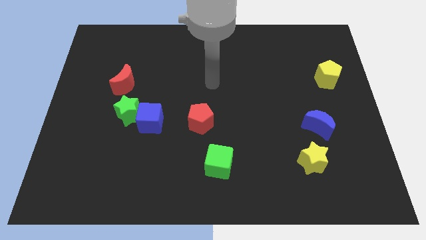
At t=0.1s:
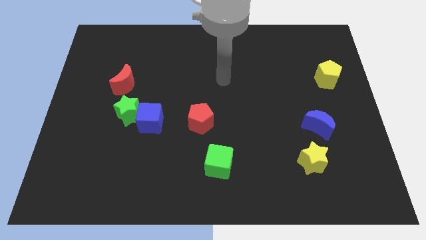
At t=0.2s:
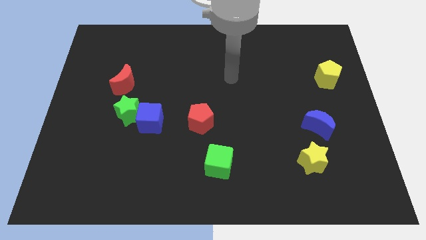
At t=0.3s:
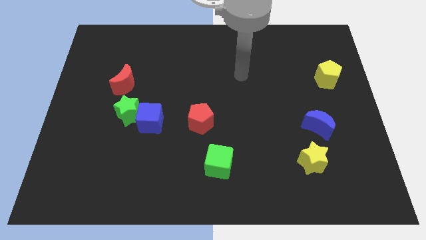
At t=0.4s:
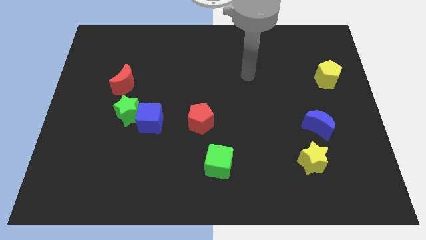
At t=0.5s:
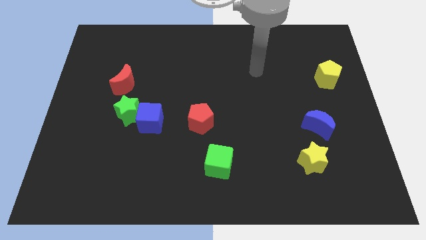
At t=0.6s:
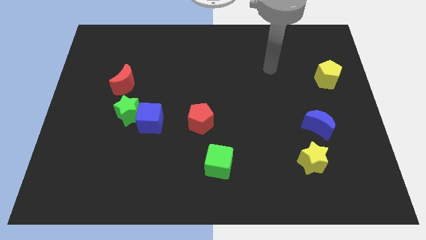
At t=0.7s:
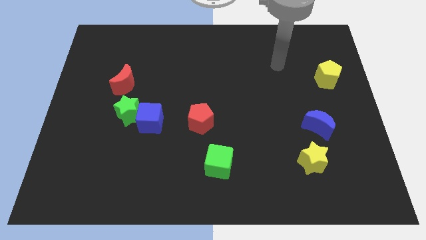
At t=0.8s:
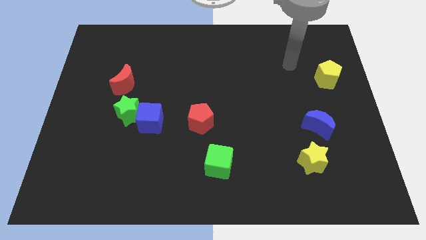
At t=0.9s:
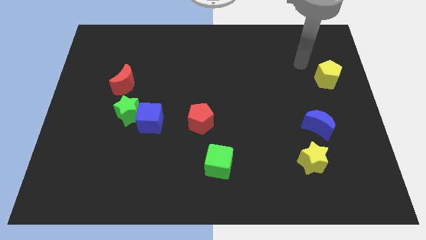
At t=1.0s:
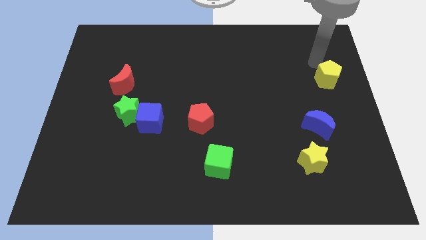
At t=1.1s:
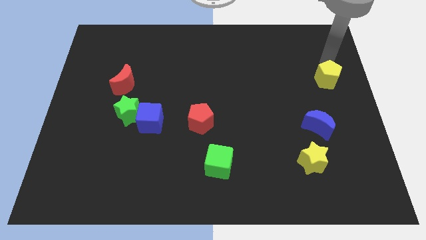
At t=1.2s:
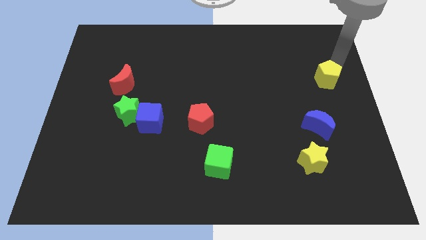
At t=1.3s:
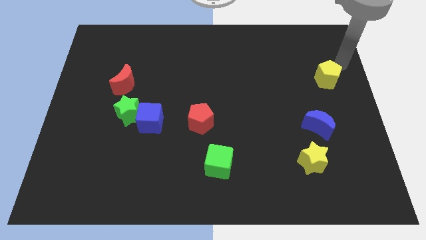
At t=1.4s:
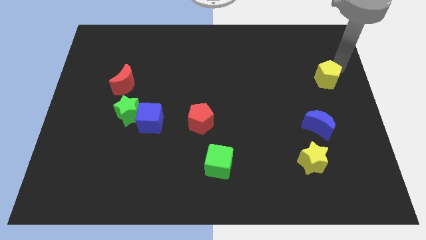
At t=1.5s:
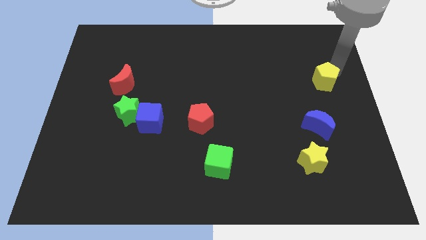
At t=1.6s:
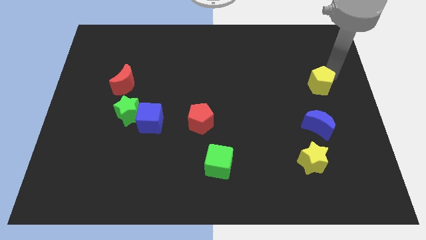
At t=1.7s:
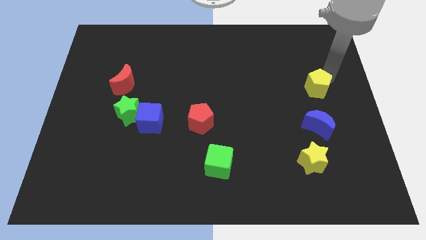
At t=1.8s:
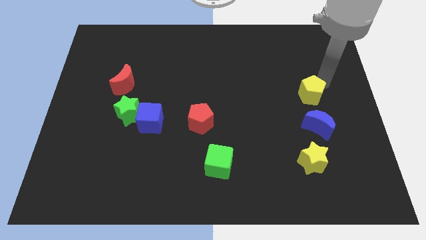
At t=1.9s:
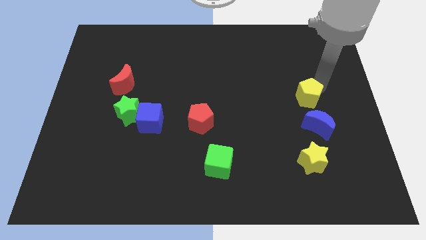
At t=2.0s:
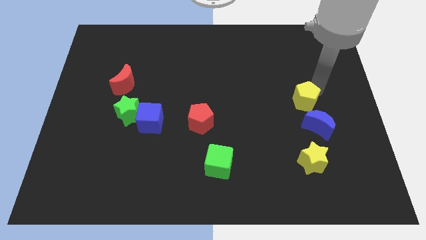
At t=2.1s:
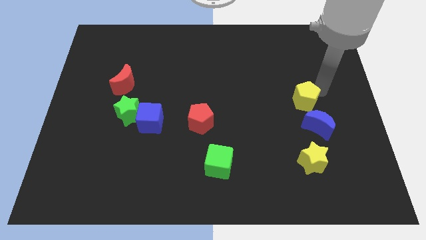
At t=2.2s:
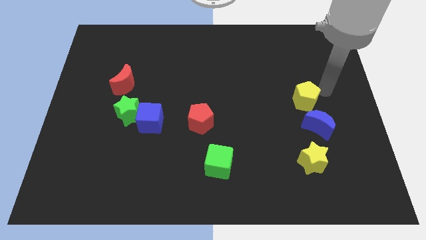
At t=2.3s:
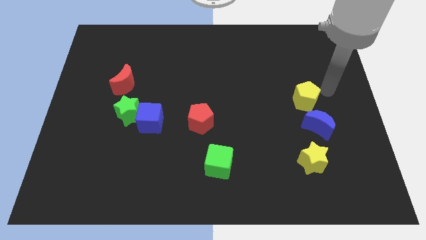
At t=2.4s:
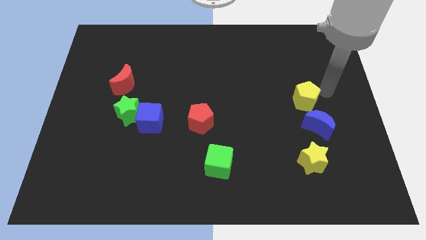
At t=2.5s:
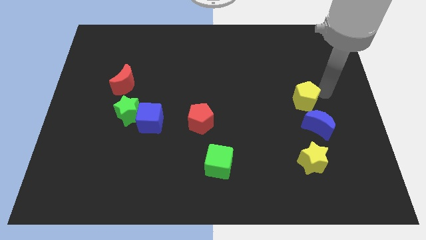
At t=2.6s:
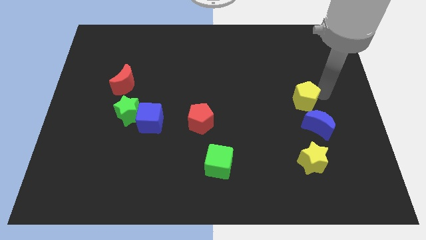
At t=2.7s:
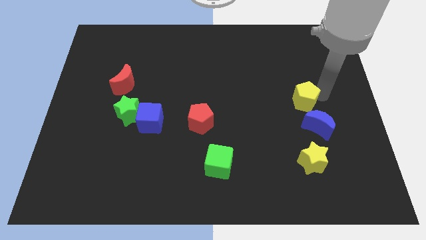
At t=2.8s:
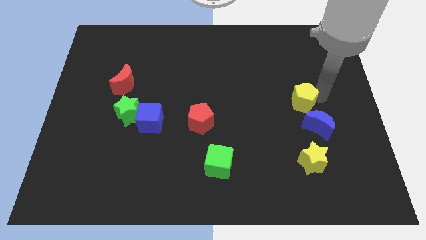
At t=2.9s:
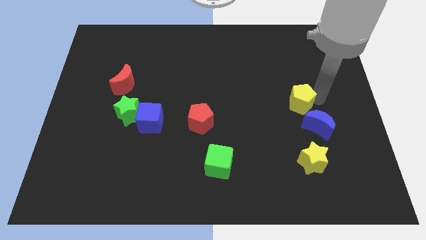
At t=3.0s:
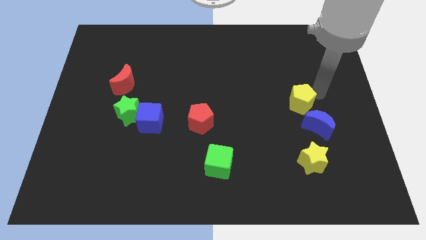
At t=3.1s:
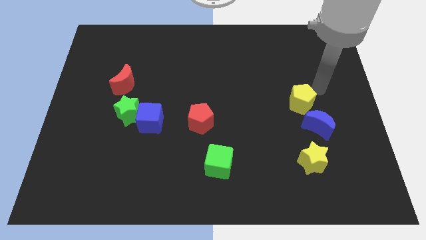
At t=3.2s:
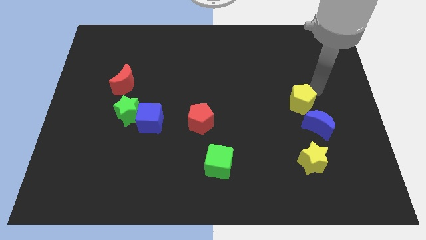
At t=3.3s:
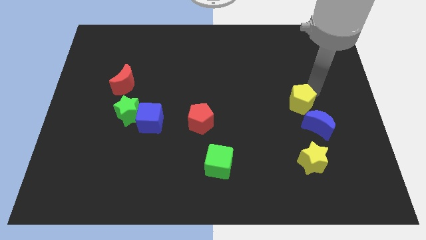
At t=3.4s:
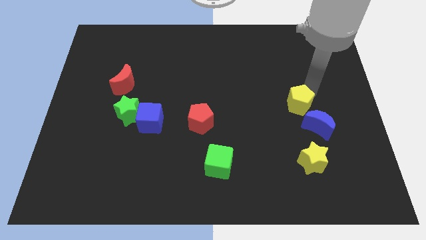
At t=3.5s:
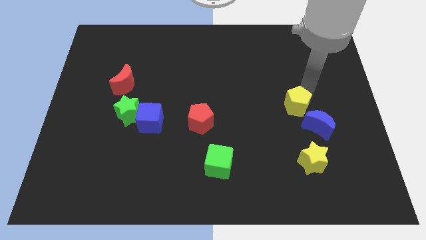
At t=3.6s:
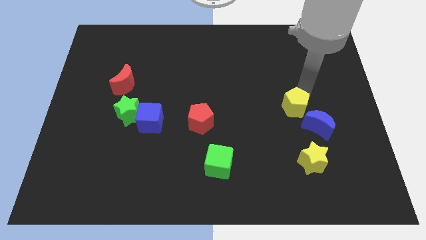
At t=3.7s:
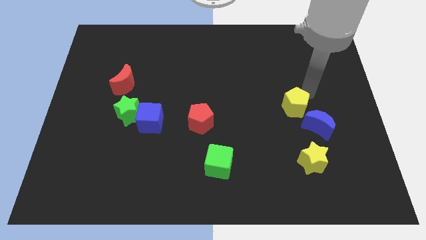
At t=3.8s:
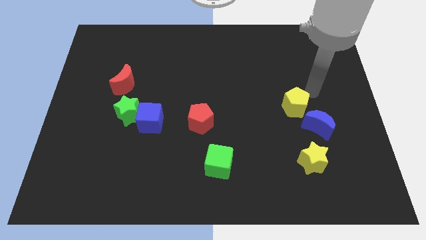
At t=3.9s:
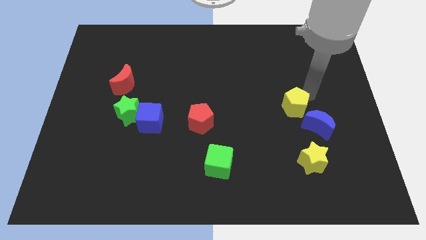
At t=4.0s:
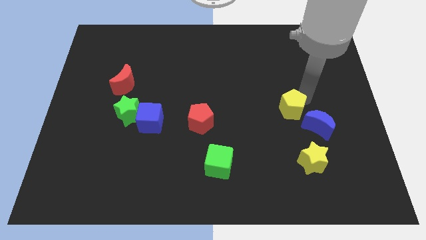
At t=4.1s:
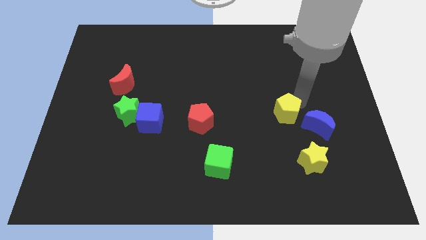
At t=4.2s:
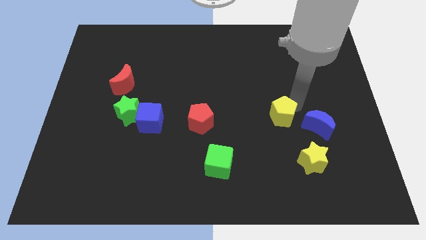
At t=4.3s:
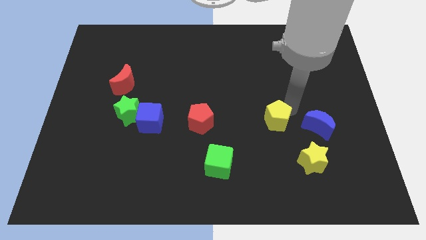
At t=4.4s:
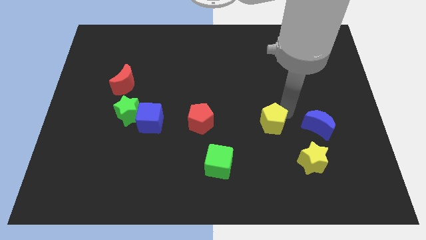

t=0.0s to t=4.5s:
slide the yellow pentagon diagonally downwards and left

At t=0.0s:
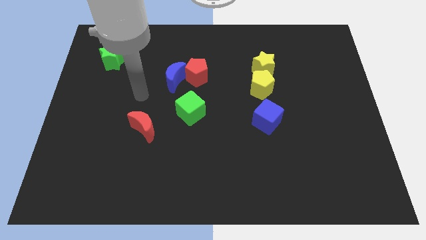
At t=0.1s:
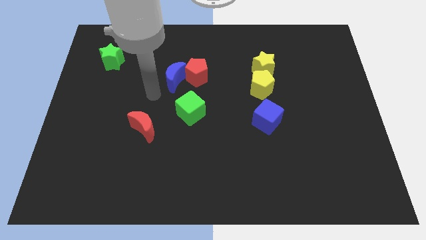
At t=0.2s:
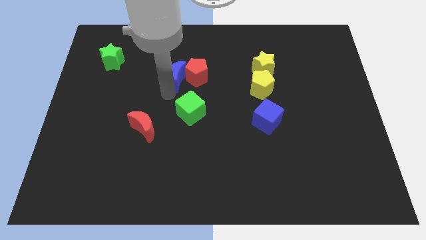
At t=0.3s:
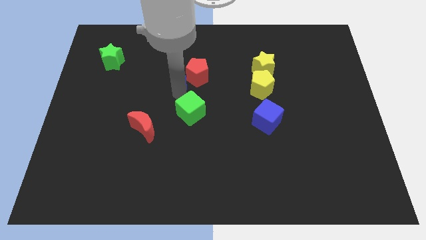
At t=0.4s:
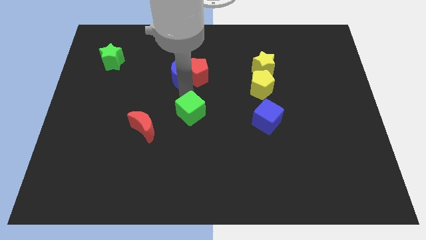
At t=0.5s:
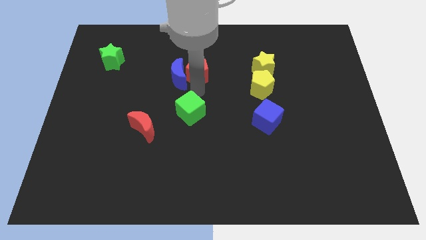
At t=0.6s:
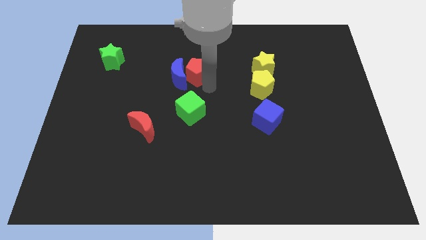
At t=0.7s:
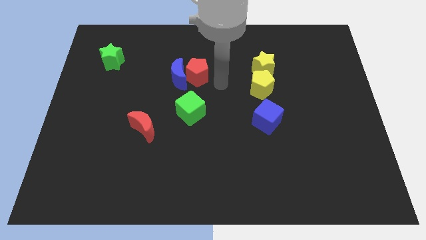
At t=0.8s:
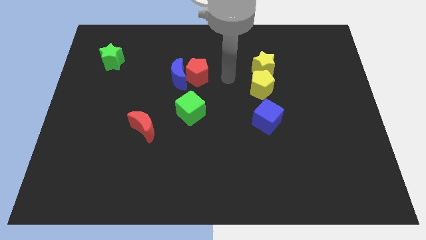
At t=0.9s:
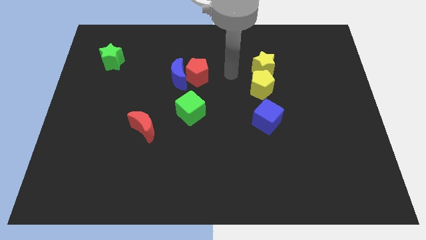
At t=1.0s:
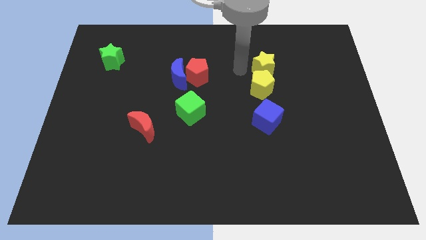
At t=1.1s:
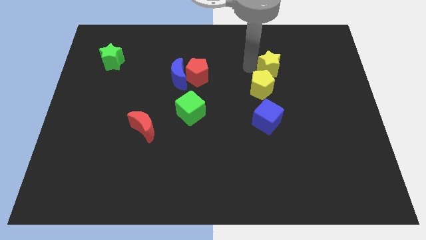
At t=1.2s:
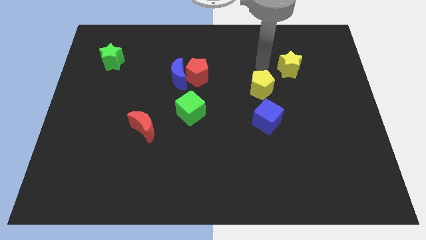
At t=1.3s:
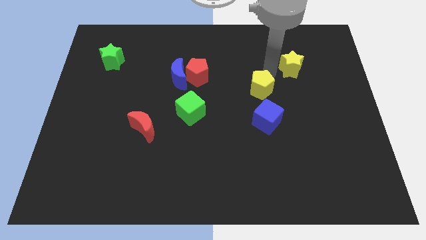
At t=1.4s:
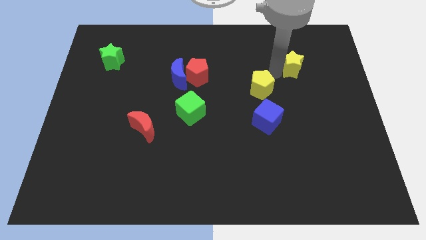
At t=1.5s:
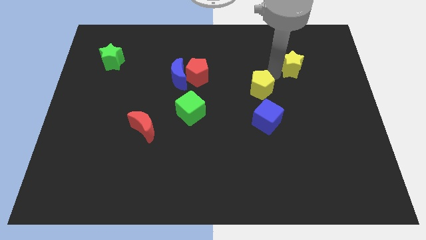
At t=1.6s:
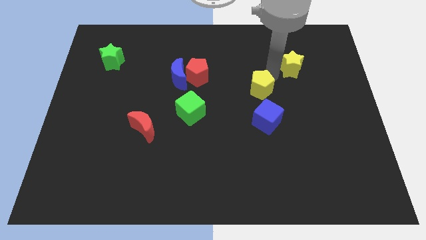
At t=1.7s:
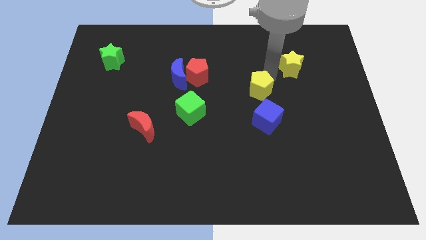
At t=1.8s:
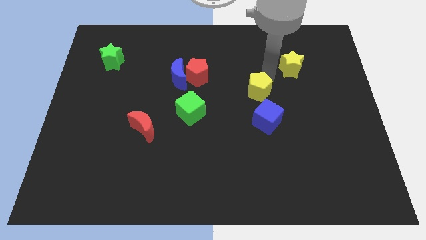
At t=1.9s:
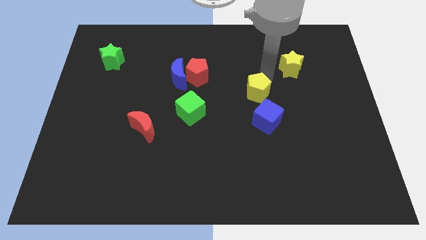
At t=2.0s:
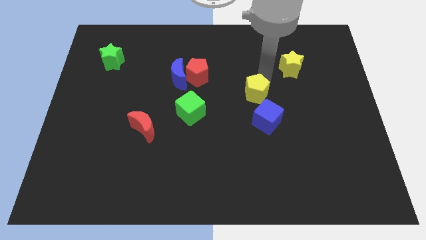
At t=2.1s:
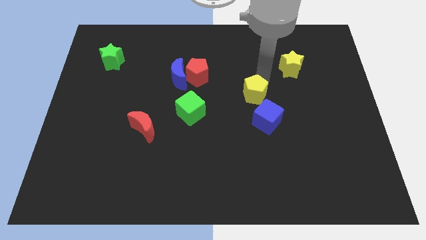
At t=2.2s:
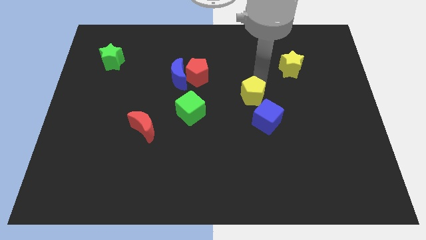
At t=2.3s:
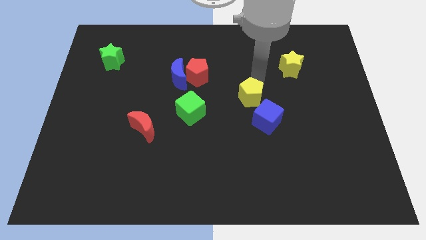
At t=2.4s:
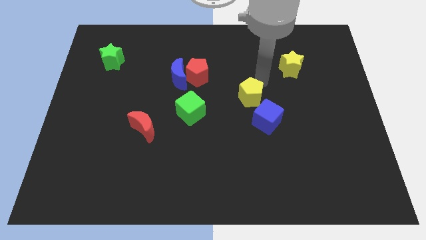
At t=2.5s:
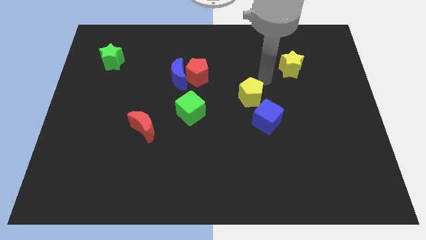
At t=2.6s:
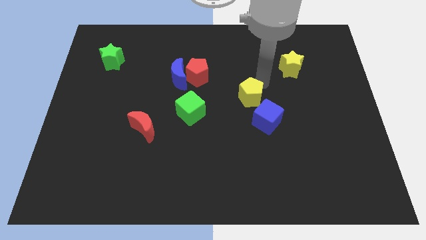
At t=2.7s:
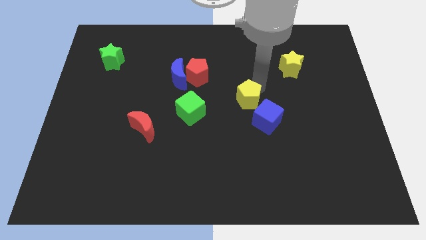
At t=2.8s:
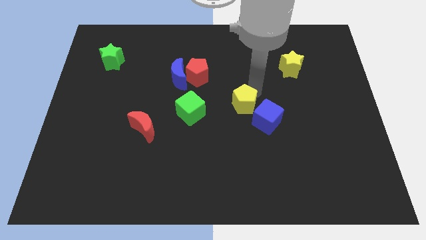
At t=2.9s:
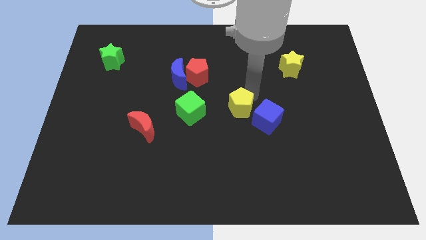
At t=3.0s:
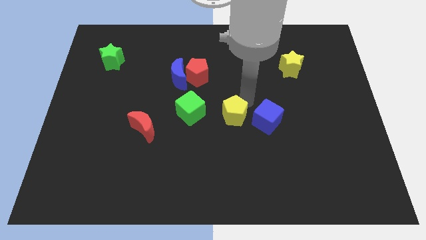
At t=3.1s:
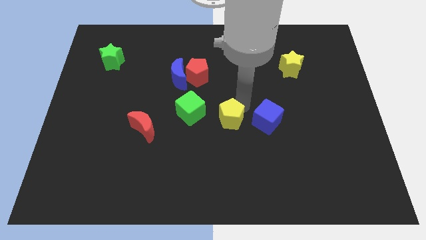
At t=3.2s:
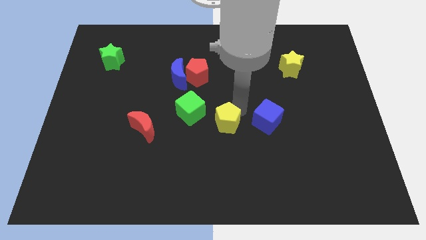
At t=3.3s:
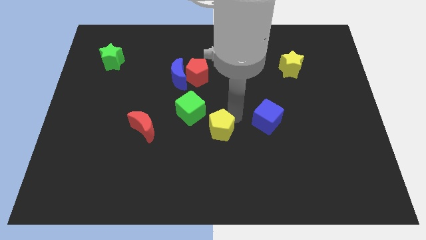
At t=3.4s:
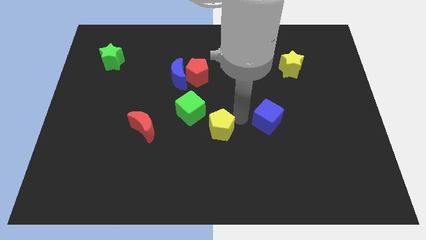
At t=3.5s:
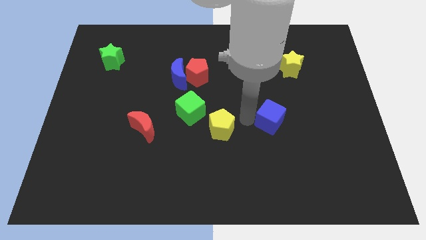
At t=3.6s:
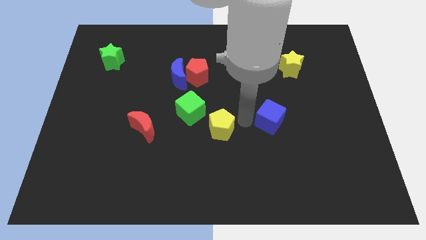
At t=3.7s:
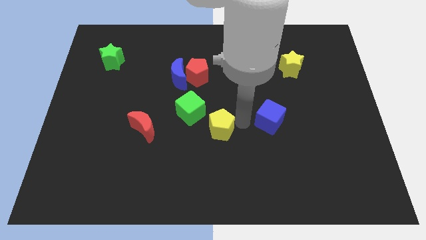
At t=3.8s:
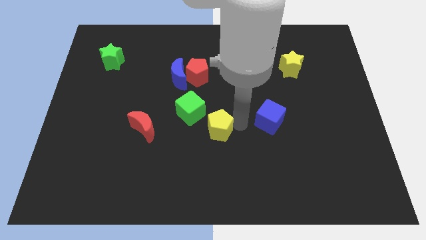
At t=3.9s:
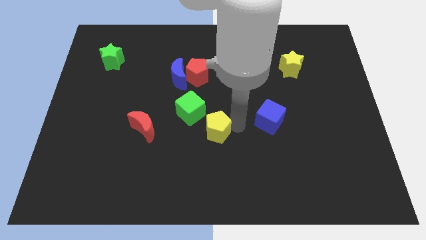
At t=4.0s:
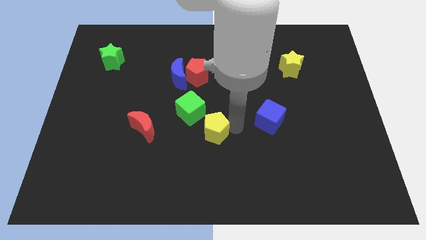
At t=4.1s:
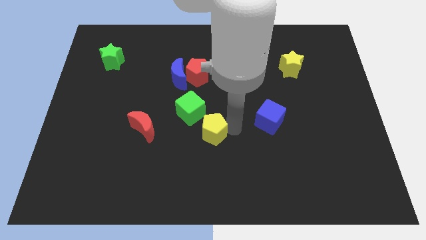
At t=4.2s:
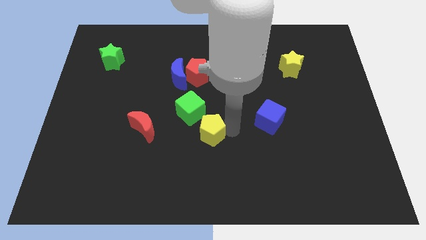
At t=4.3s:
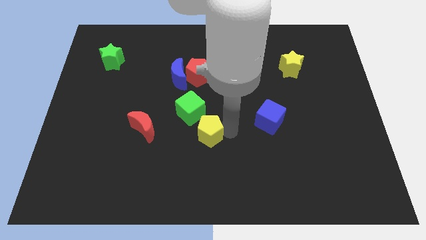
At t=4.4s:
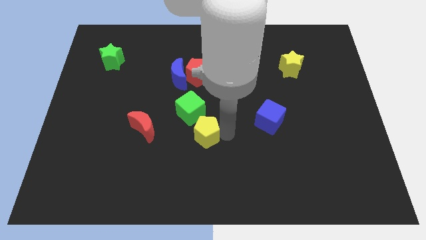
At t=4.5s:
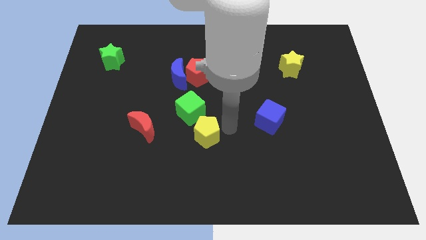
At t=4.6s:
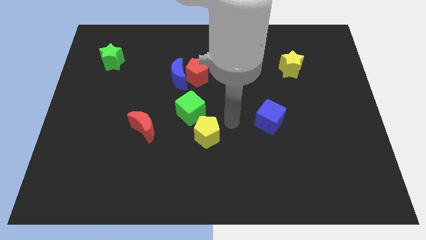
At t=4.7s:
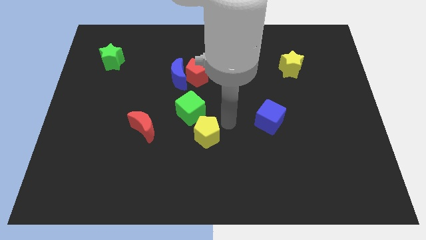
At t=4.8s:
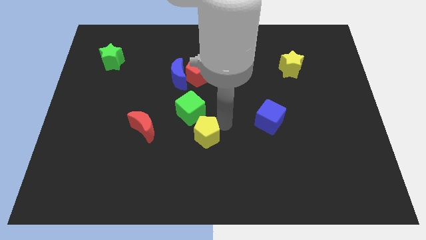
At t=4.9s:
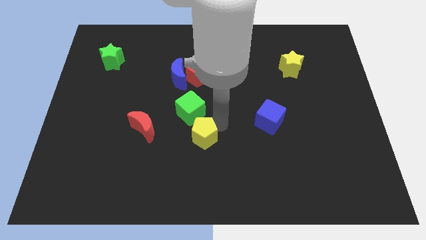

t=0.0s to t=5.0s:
slide the yellow pentagon downwards and to the left diagonally
